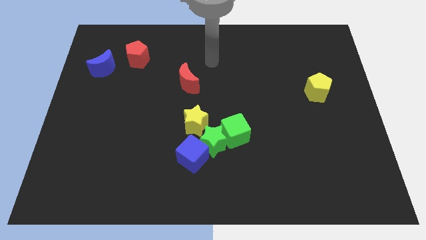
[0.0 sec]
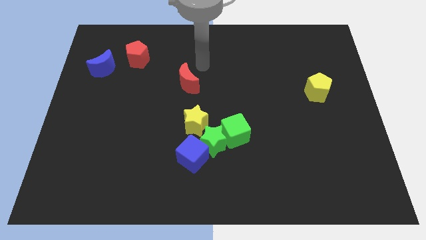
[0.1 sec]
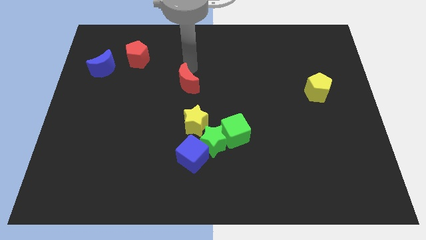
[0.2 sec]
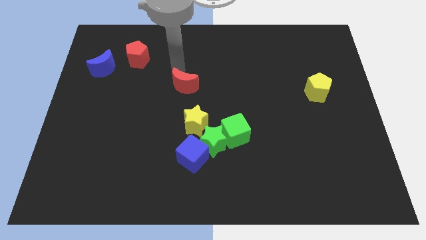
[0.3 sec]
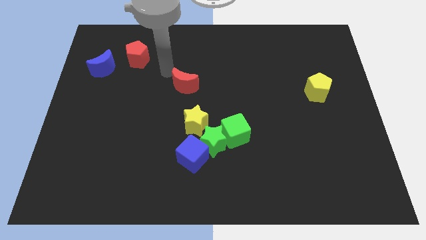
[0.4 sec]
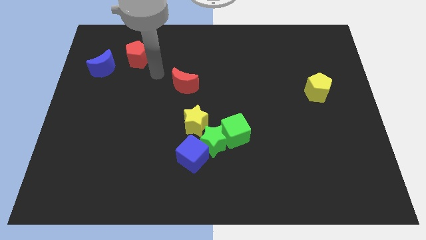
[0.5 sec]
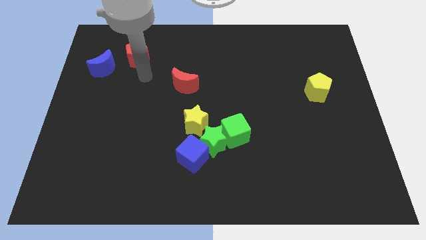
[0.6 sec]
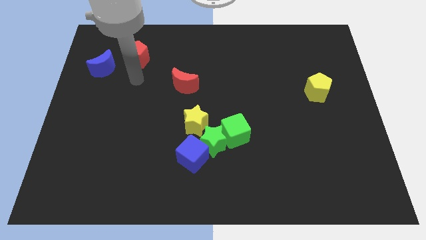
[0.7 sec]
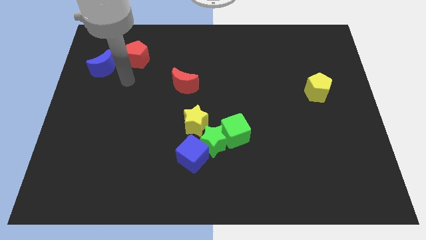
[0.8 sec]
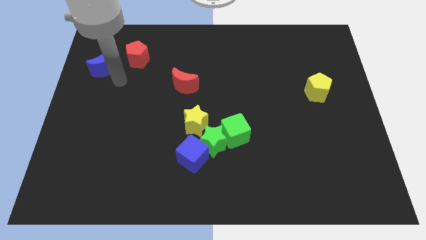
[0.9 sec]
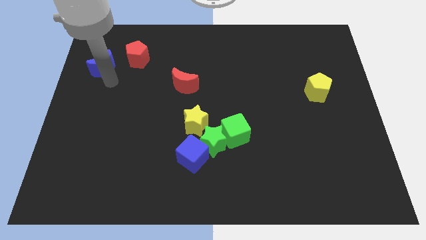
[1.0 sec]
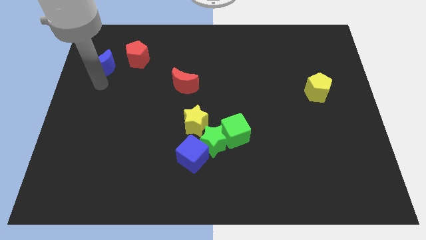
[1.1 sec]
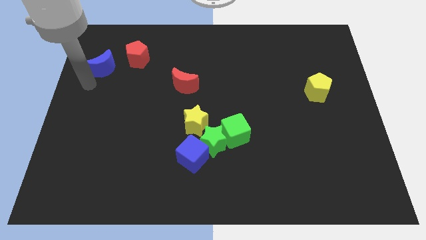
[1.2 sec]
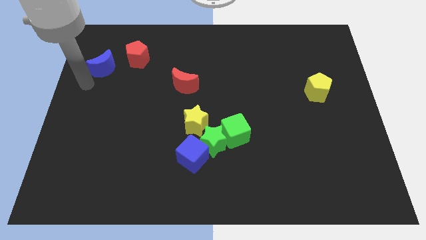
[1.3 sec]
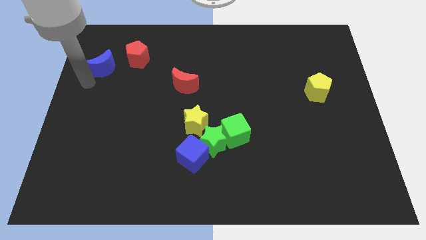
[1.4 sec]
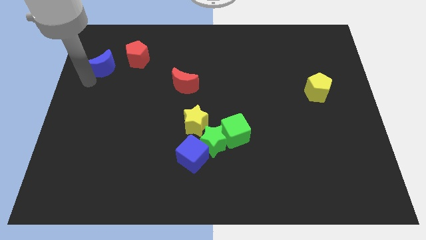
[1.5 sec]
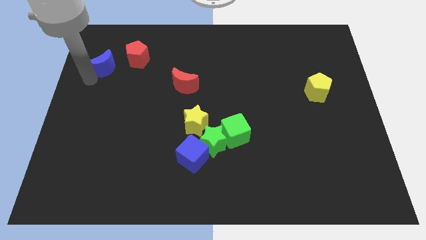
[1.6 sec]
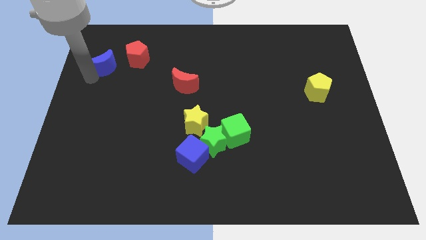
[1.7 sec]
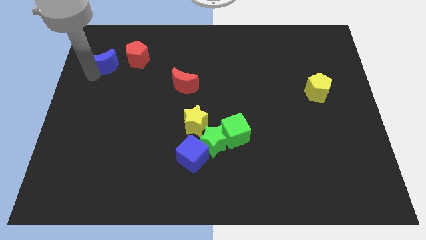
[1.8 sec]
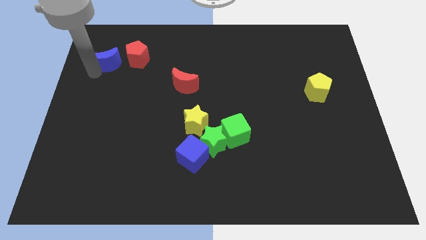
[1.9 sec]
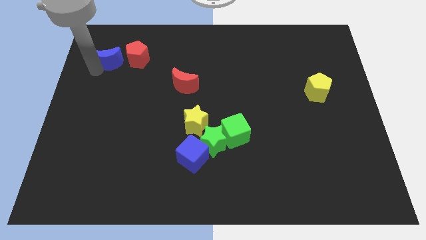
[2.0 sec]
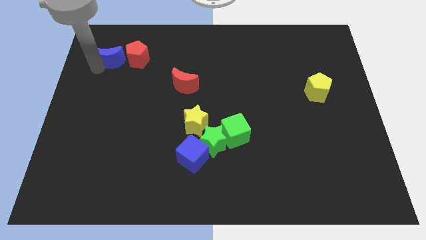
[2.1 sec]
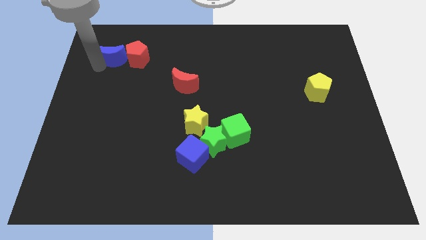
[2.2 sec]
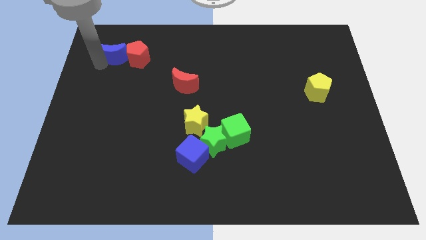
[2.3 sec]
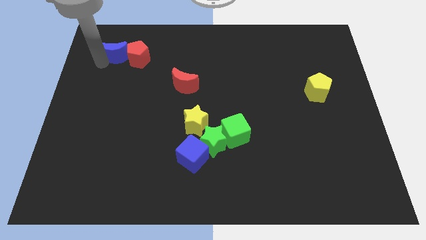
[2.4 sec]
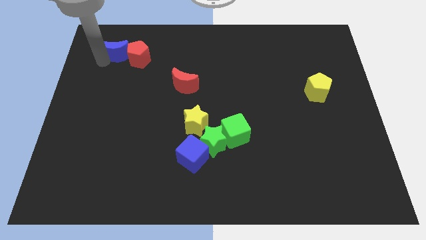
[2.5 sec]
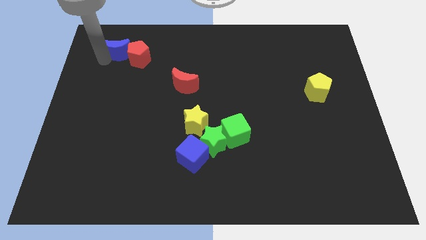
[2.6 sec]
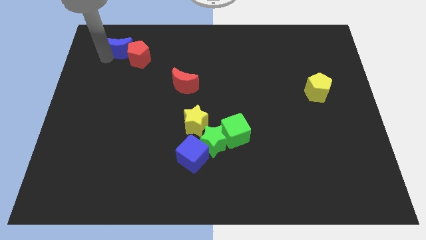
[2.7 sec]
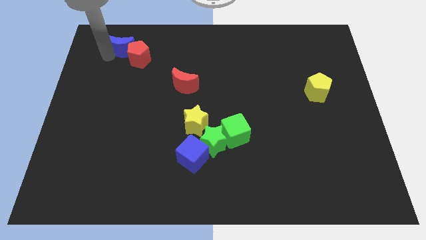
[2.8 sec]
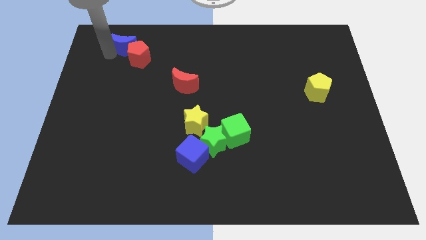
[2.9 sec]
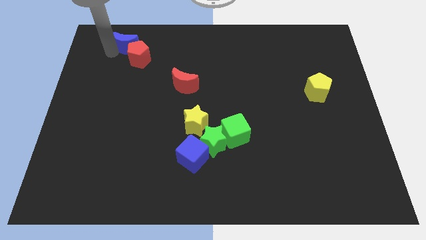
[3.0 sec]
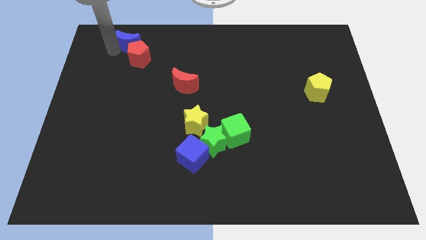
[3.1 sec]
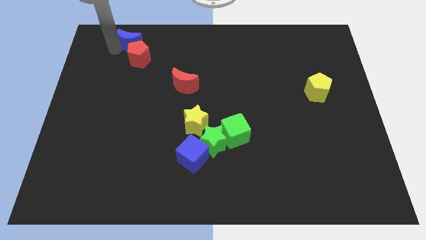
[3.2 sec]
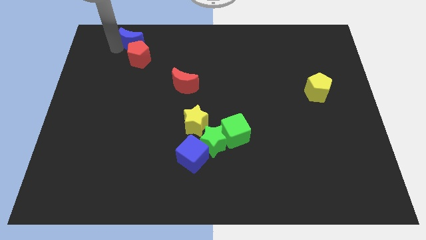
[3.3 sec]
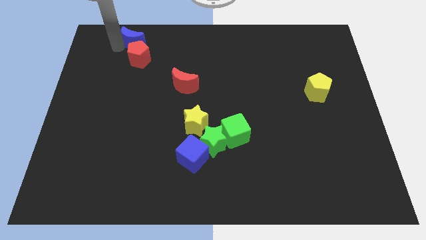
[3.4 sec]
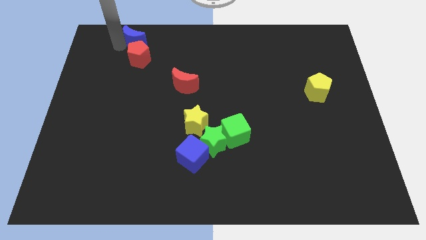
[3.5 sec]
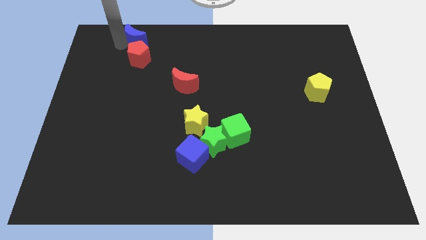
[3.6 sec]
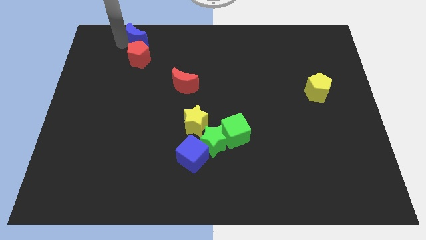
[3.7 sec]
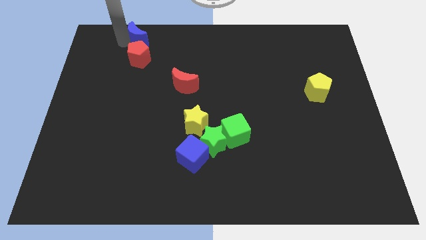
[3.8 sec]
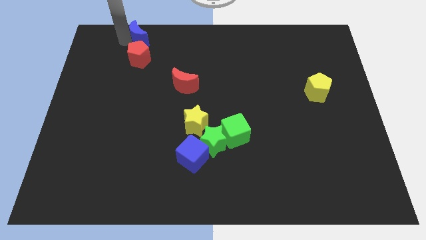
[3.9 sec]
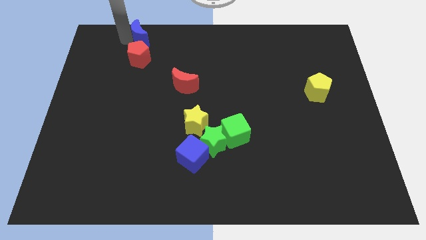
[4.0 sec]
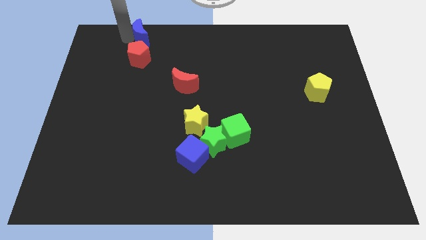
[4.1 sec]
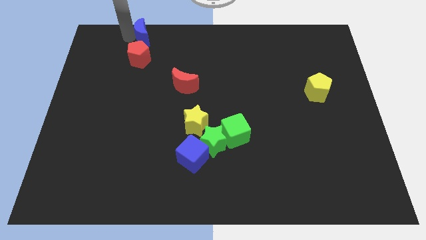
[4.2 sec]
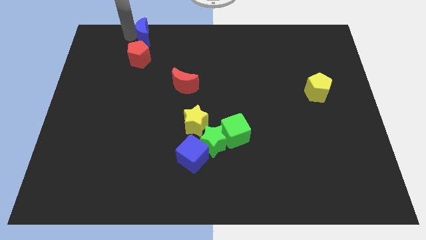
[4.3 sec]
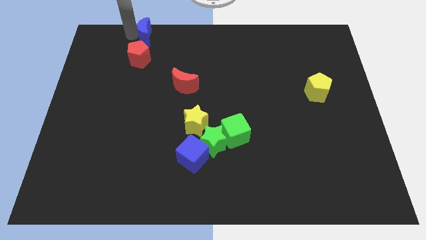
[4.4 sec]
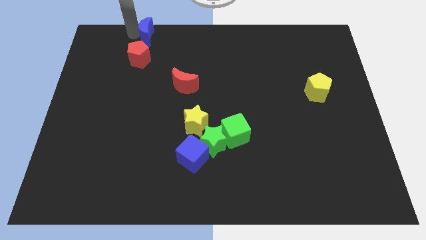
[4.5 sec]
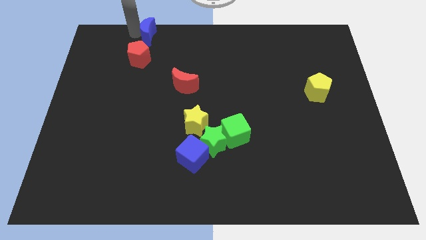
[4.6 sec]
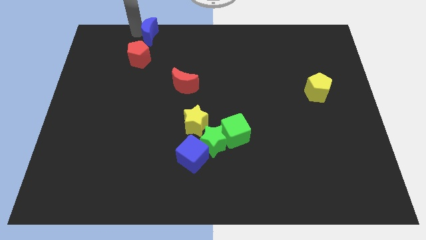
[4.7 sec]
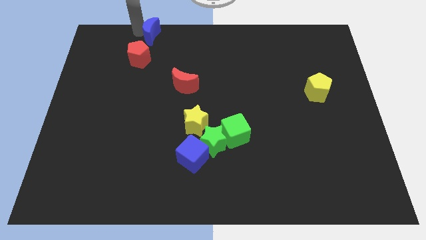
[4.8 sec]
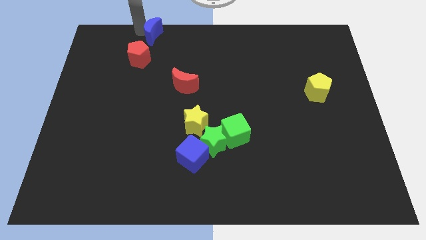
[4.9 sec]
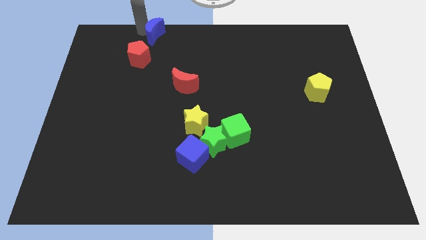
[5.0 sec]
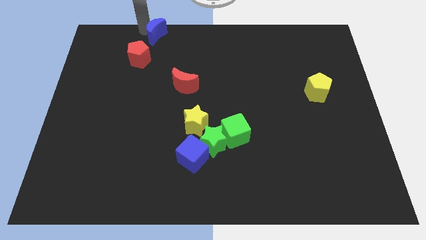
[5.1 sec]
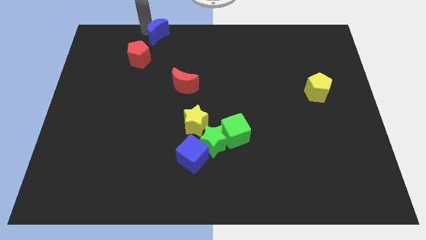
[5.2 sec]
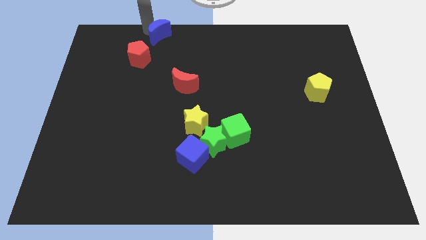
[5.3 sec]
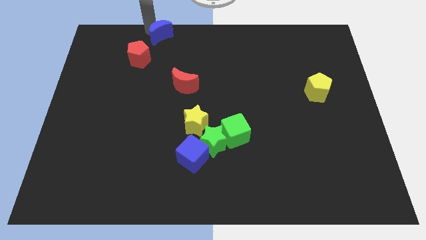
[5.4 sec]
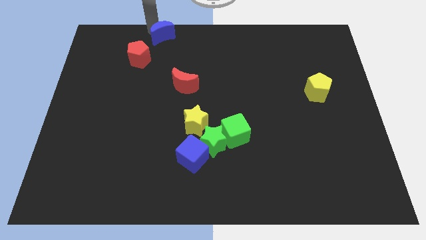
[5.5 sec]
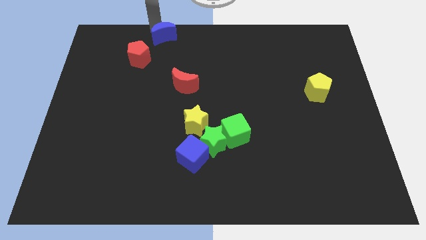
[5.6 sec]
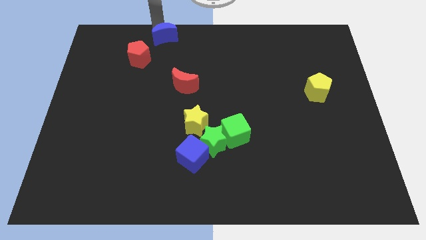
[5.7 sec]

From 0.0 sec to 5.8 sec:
put the blue moon to the towards your base
